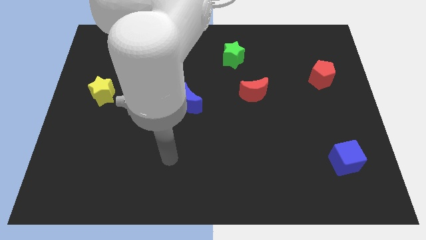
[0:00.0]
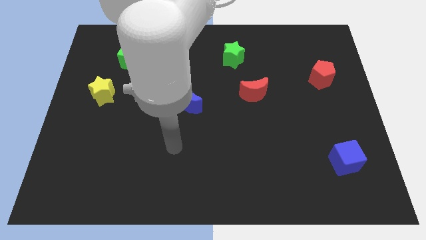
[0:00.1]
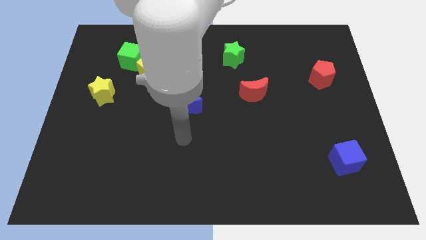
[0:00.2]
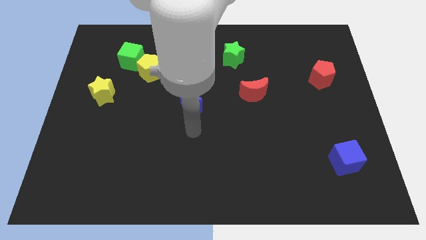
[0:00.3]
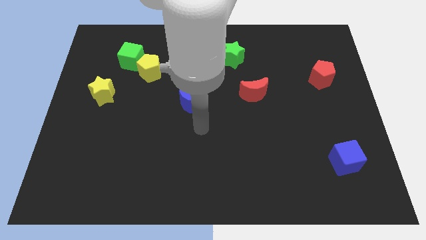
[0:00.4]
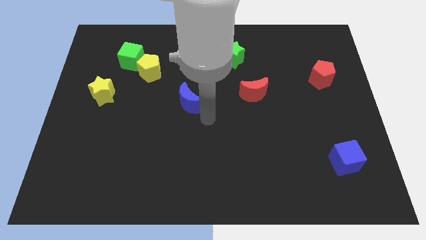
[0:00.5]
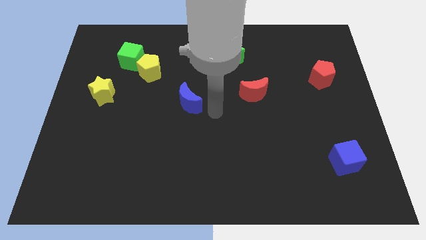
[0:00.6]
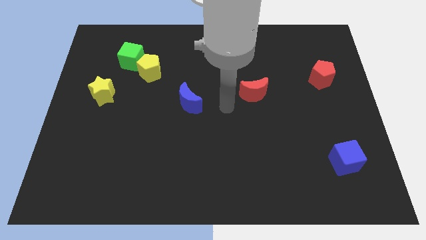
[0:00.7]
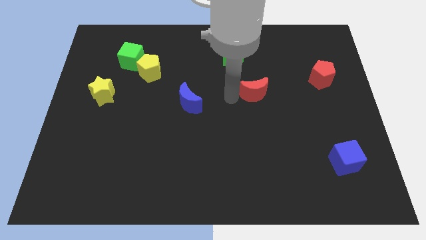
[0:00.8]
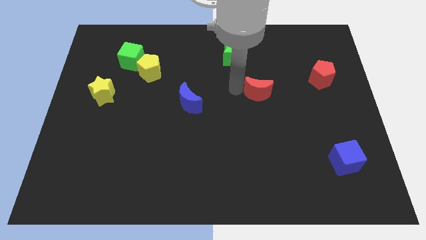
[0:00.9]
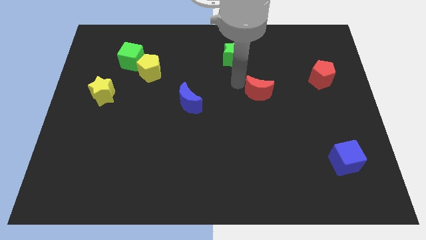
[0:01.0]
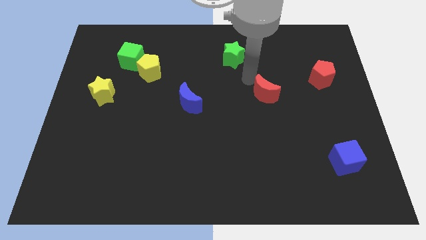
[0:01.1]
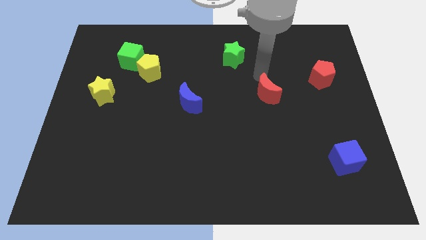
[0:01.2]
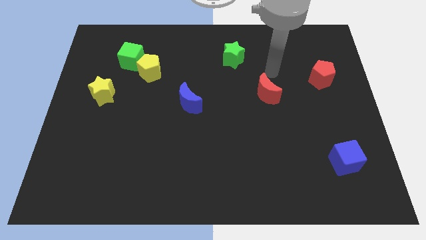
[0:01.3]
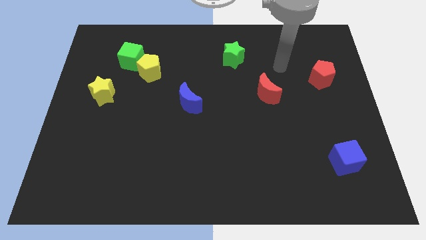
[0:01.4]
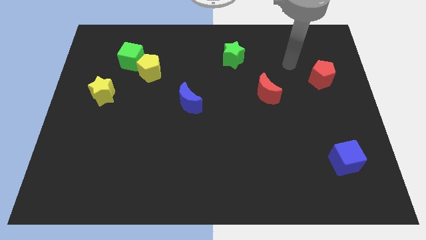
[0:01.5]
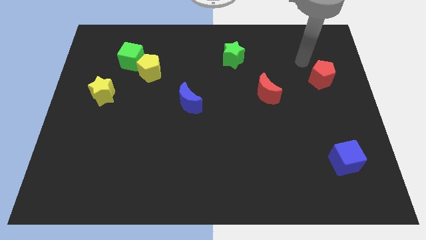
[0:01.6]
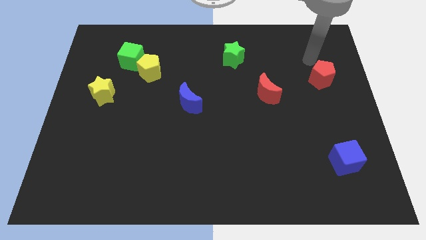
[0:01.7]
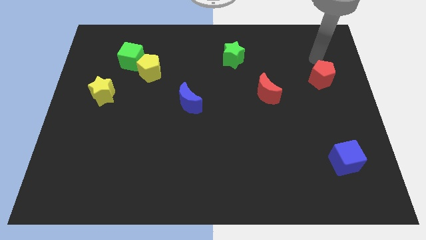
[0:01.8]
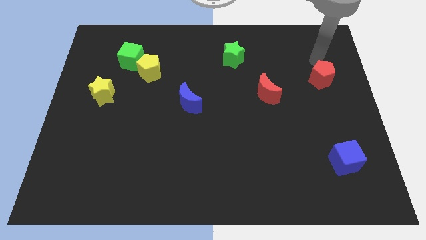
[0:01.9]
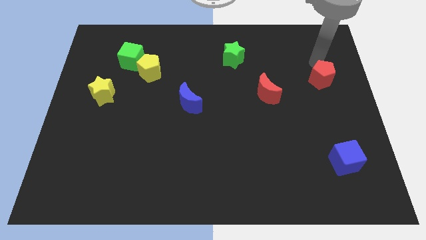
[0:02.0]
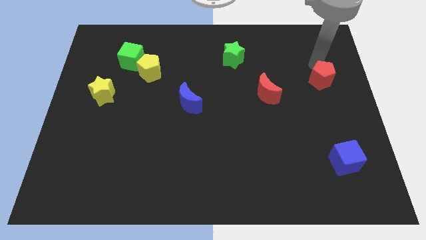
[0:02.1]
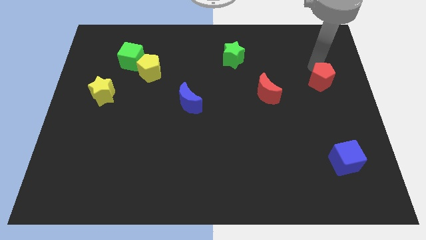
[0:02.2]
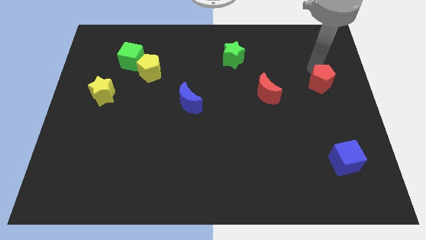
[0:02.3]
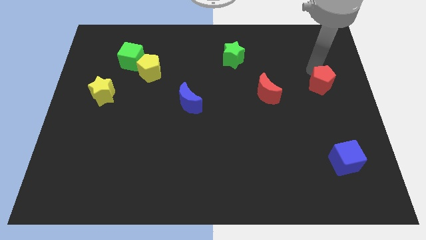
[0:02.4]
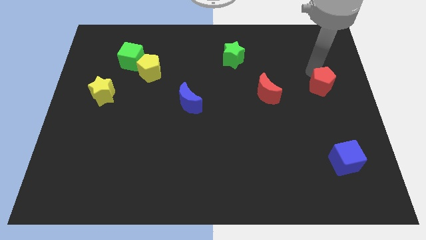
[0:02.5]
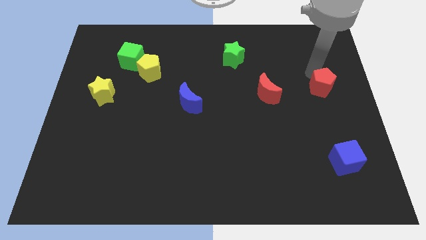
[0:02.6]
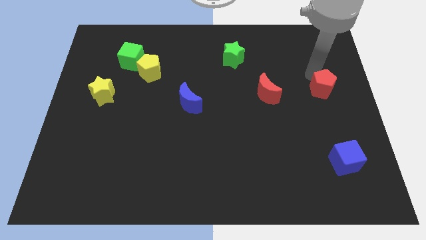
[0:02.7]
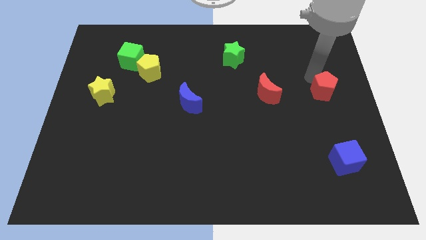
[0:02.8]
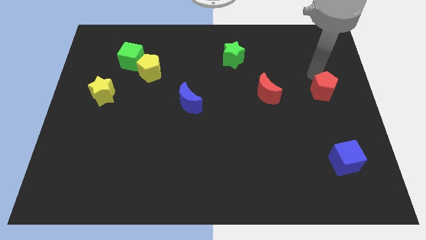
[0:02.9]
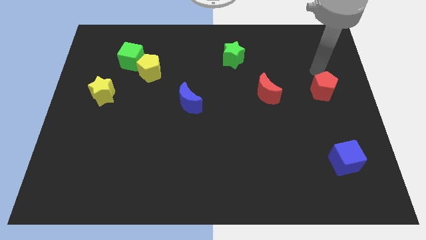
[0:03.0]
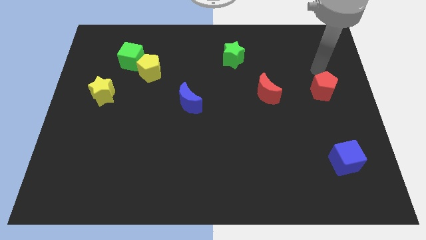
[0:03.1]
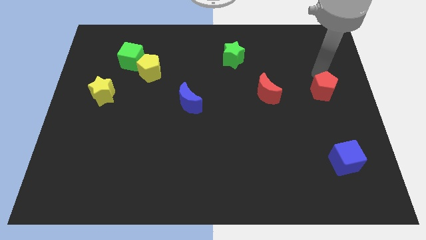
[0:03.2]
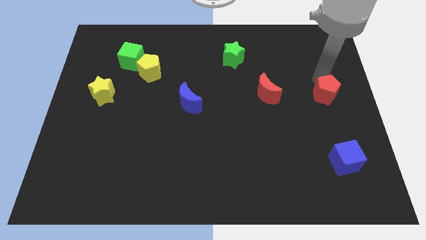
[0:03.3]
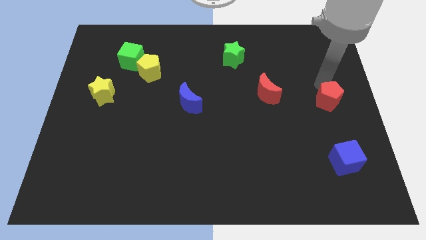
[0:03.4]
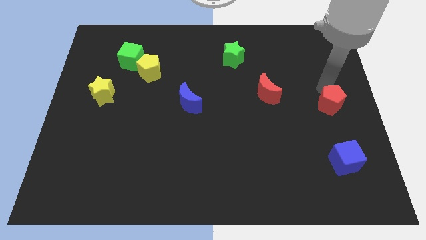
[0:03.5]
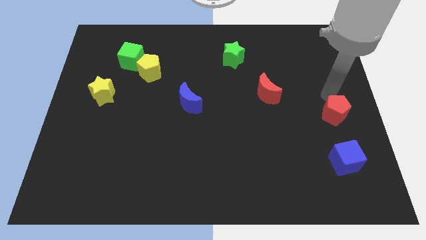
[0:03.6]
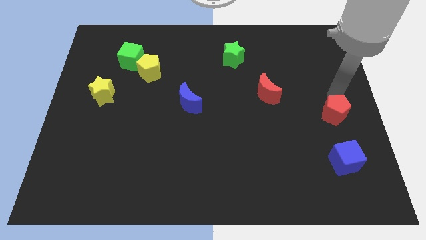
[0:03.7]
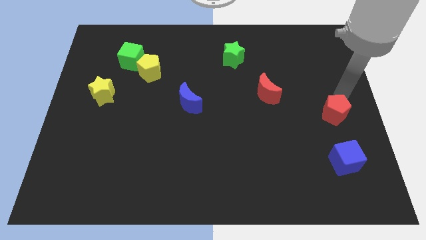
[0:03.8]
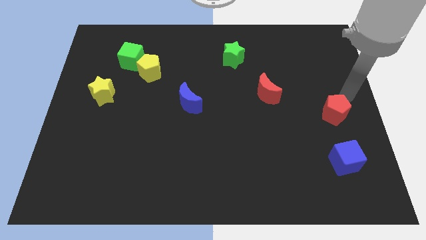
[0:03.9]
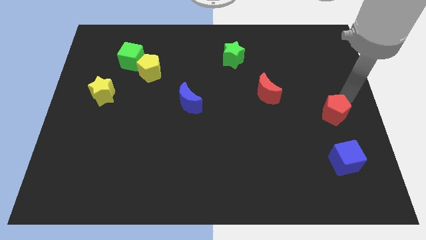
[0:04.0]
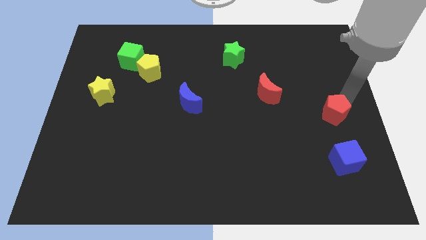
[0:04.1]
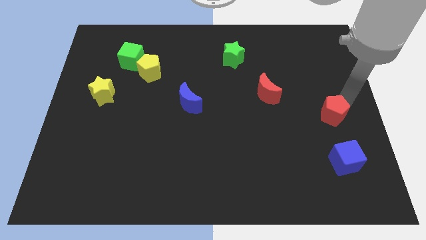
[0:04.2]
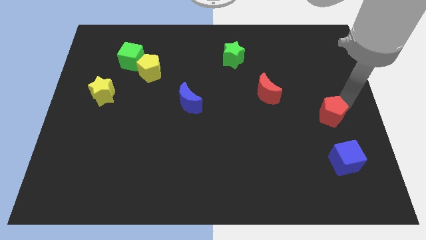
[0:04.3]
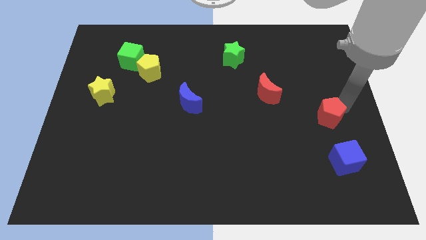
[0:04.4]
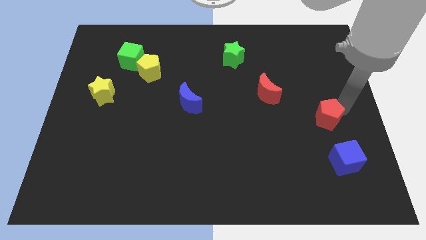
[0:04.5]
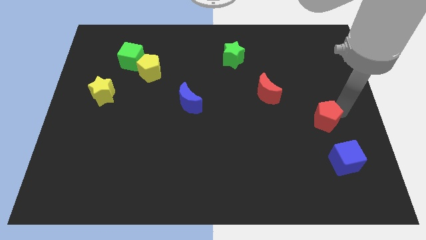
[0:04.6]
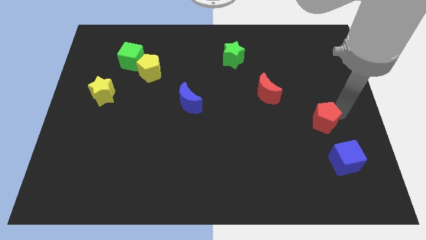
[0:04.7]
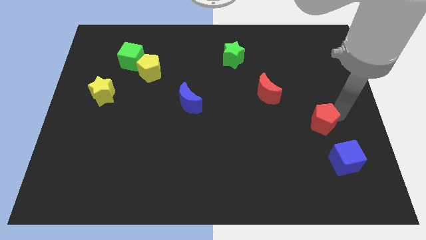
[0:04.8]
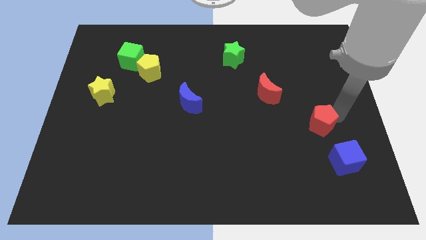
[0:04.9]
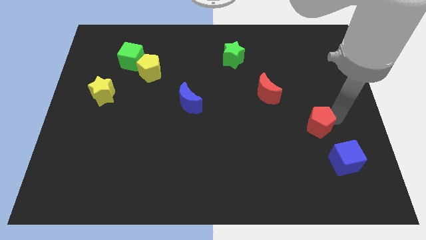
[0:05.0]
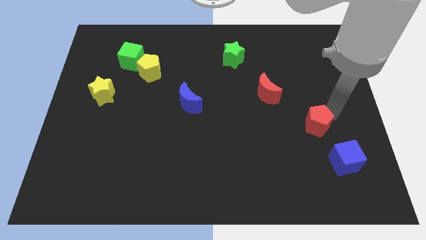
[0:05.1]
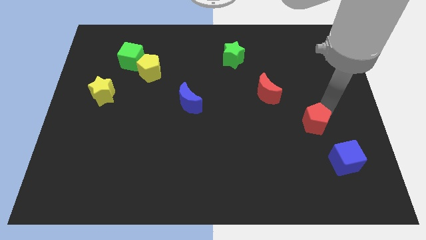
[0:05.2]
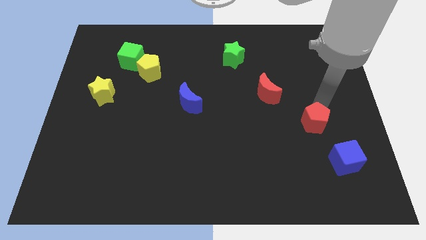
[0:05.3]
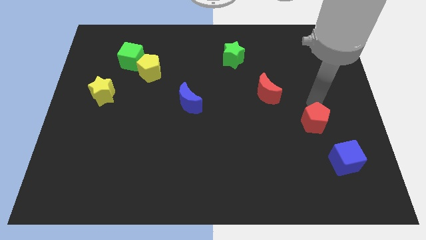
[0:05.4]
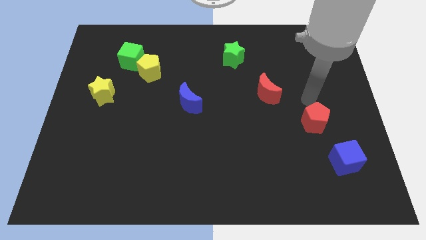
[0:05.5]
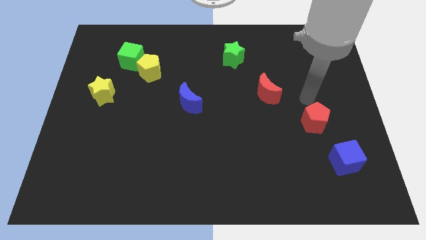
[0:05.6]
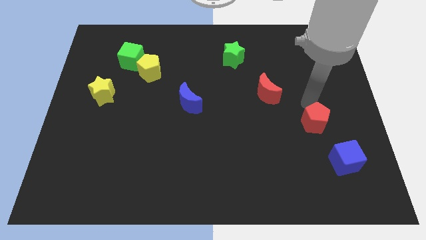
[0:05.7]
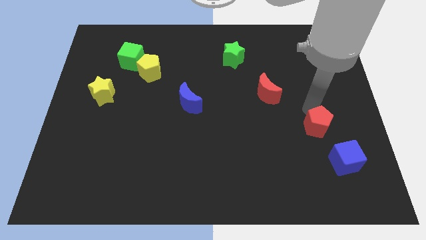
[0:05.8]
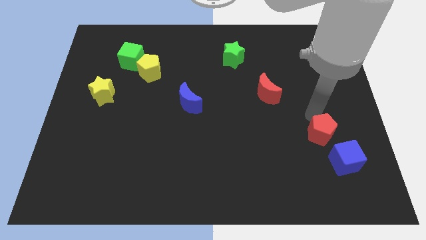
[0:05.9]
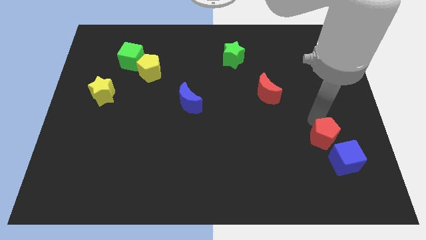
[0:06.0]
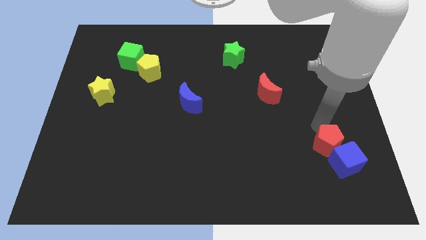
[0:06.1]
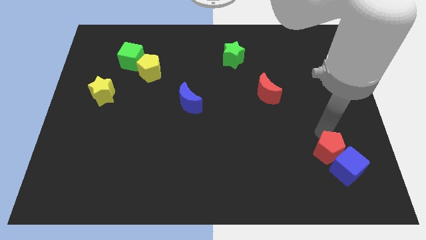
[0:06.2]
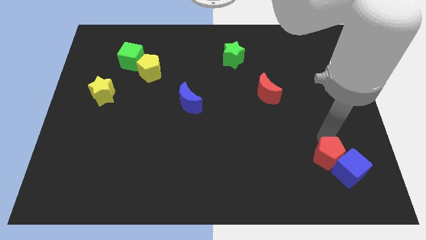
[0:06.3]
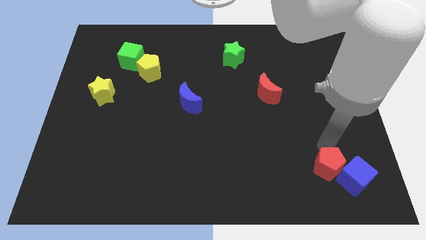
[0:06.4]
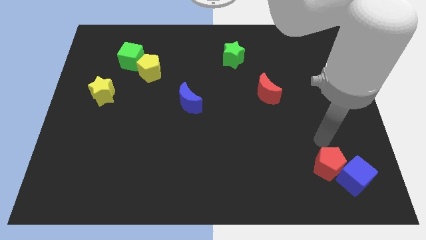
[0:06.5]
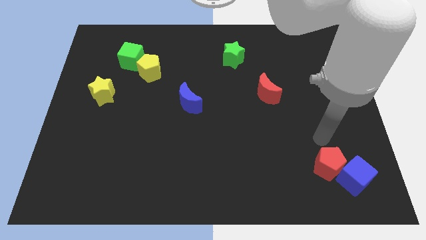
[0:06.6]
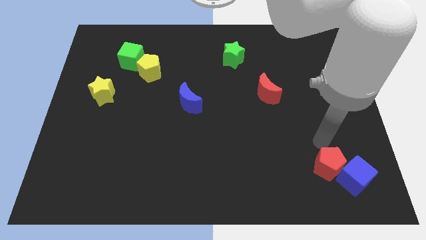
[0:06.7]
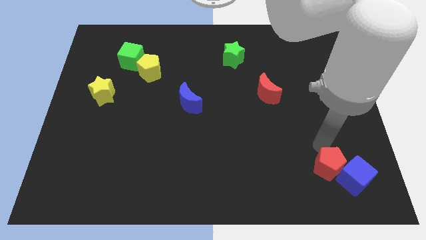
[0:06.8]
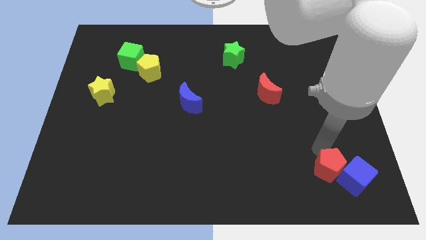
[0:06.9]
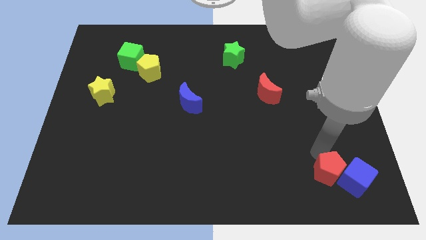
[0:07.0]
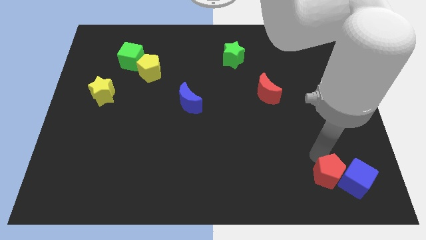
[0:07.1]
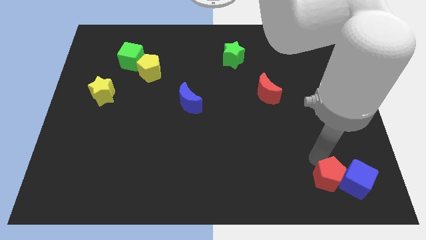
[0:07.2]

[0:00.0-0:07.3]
put the red pentagon diagonally down and to the left of the blue cube
